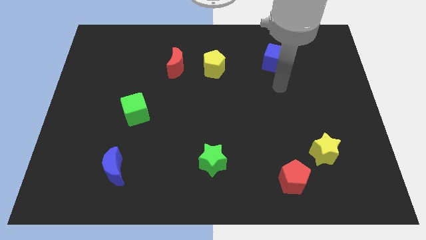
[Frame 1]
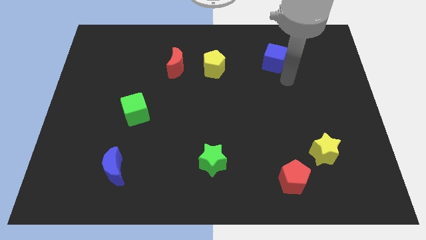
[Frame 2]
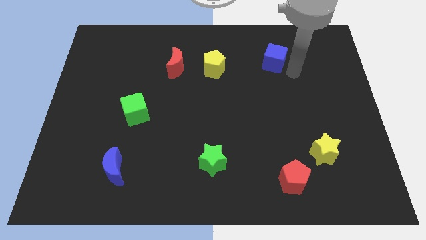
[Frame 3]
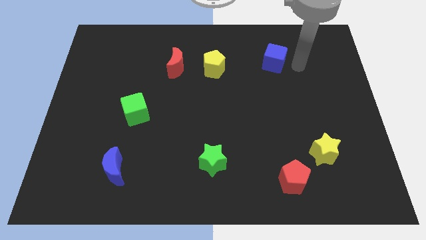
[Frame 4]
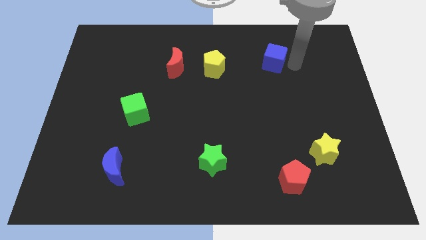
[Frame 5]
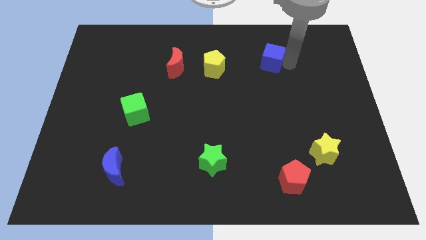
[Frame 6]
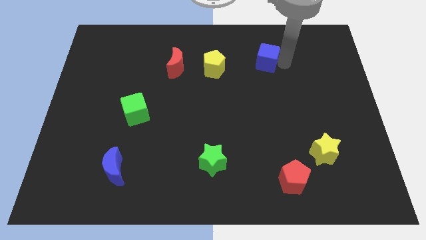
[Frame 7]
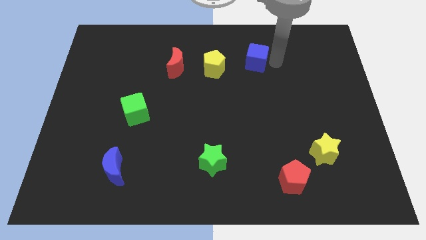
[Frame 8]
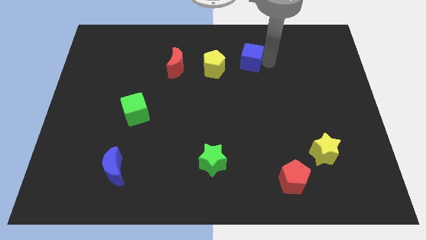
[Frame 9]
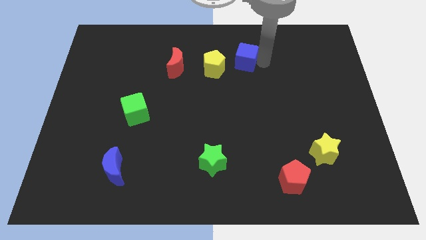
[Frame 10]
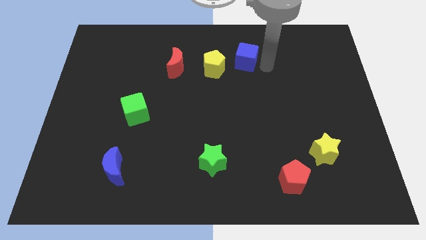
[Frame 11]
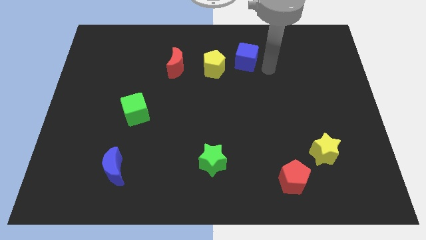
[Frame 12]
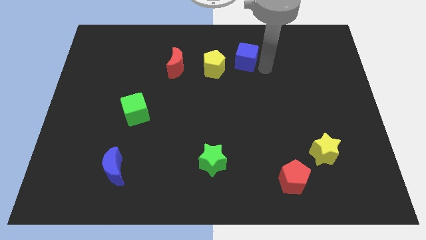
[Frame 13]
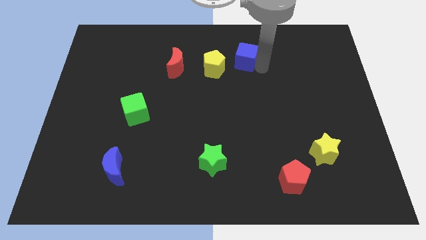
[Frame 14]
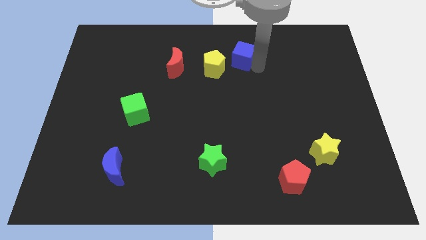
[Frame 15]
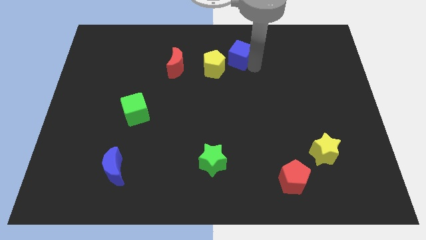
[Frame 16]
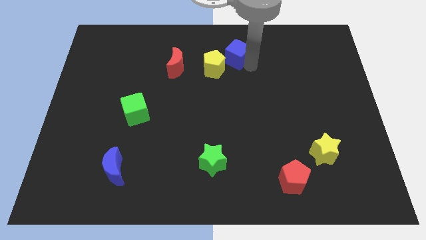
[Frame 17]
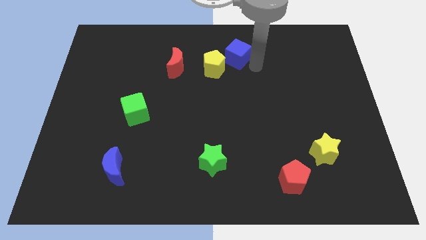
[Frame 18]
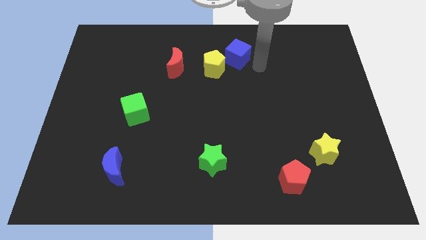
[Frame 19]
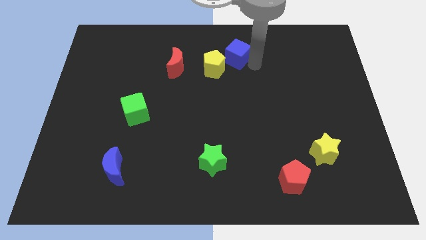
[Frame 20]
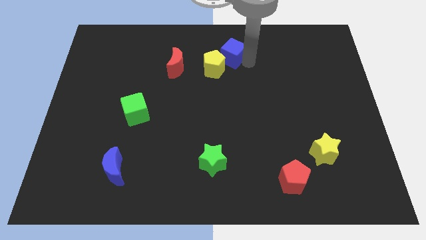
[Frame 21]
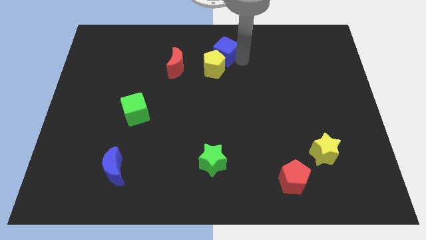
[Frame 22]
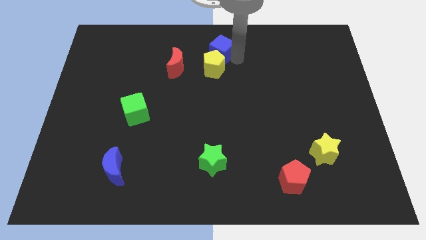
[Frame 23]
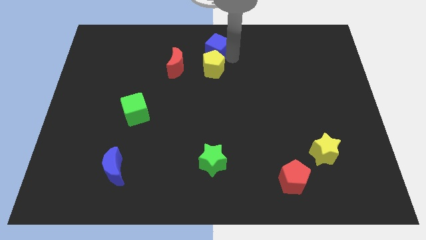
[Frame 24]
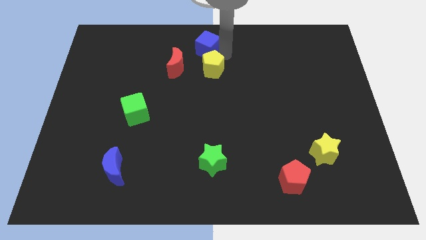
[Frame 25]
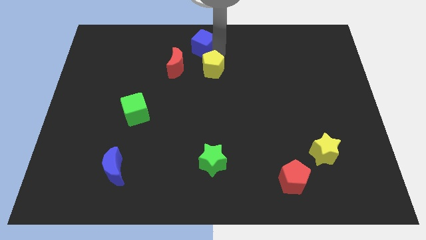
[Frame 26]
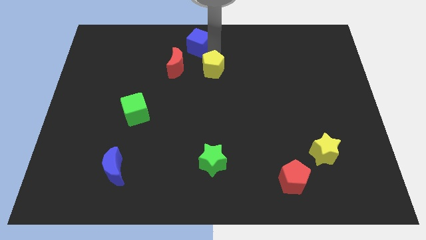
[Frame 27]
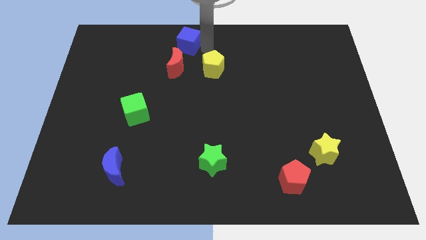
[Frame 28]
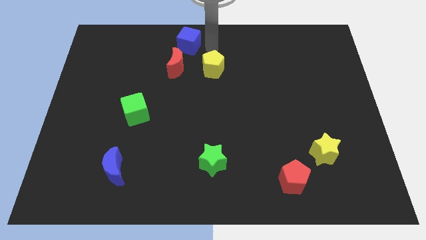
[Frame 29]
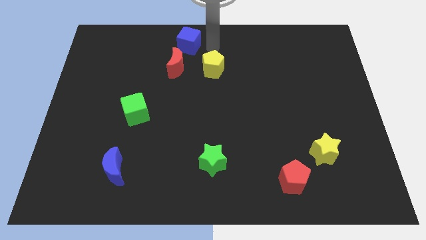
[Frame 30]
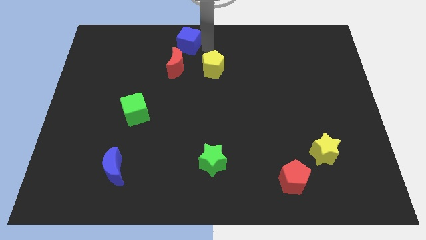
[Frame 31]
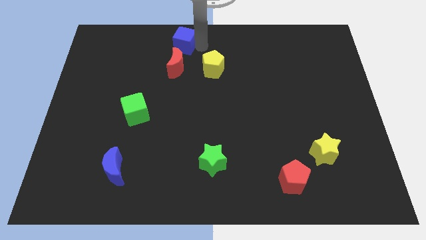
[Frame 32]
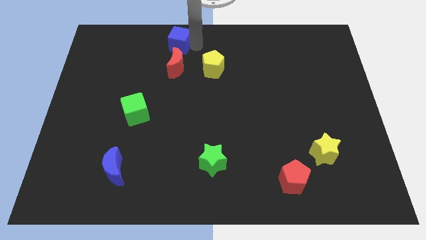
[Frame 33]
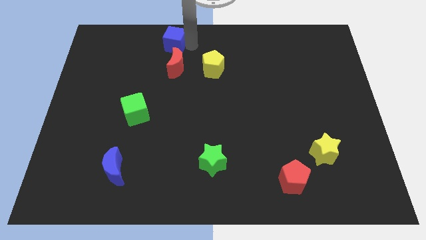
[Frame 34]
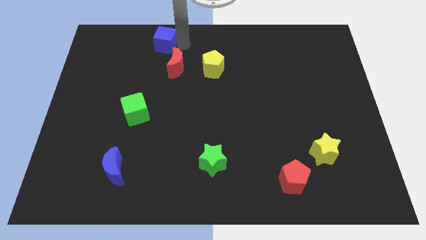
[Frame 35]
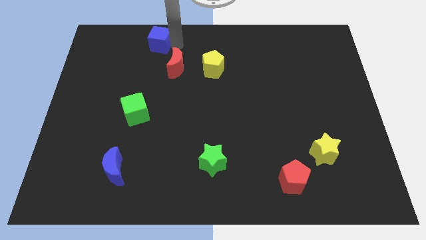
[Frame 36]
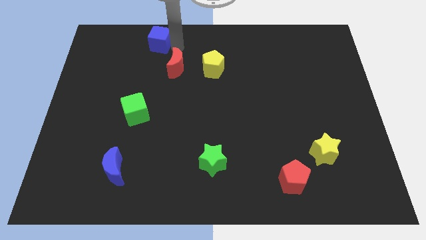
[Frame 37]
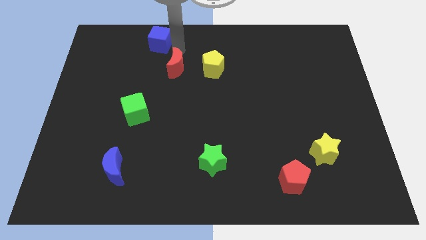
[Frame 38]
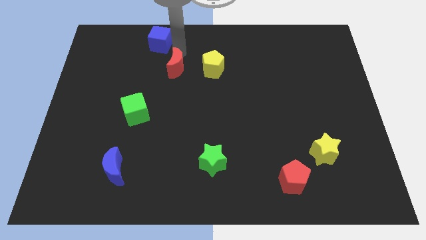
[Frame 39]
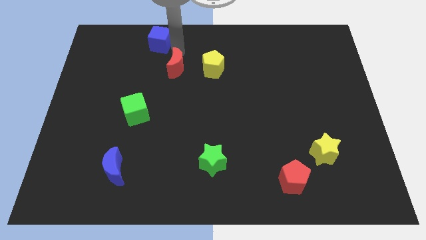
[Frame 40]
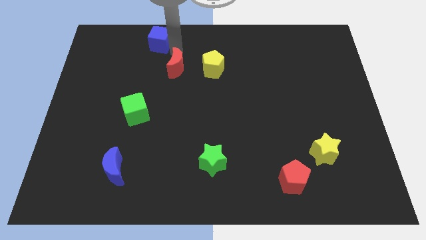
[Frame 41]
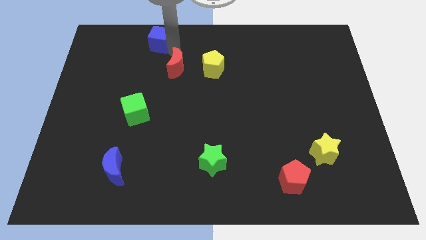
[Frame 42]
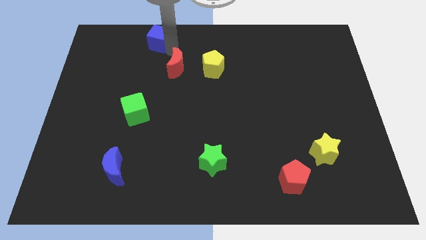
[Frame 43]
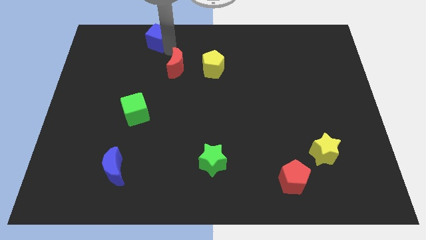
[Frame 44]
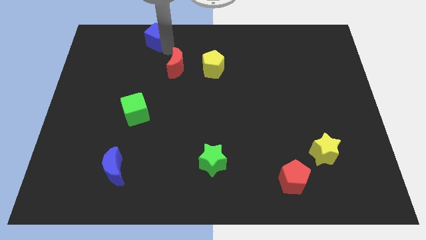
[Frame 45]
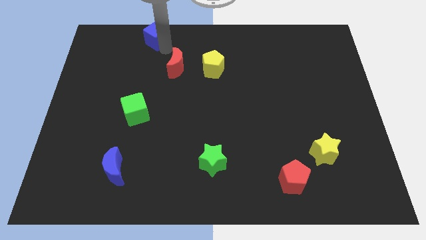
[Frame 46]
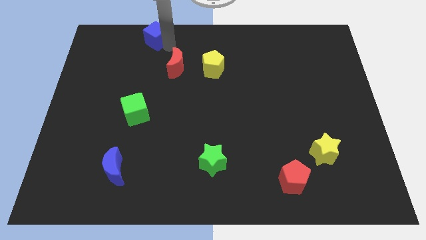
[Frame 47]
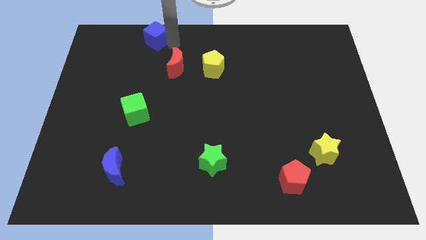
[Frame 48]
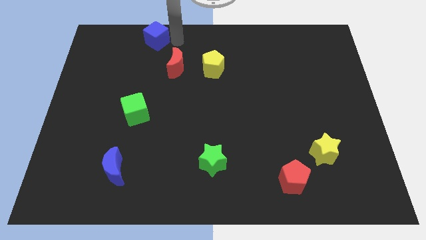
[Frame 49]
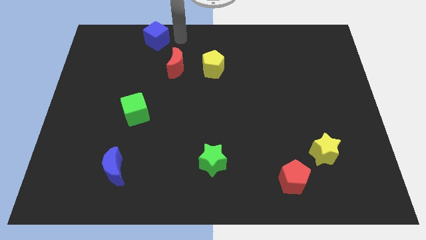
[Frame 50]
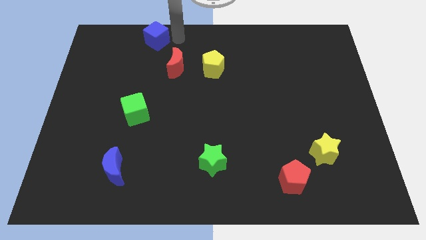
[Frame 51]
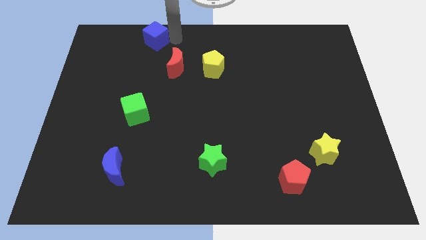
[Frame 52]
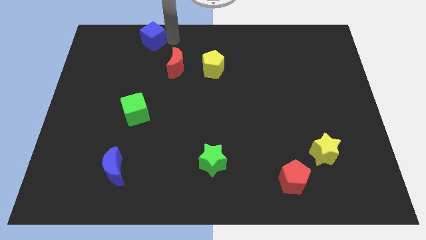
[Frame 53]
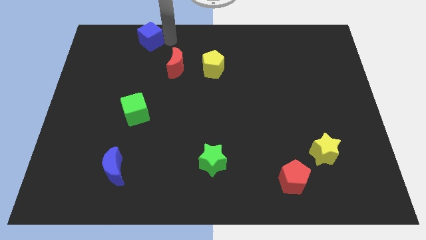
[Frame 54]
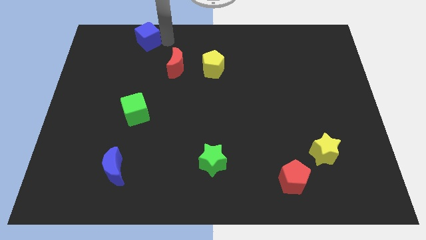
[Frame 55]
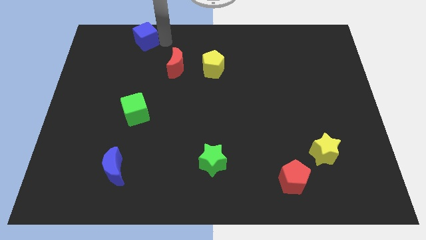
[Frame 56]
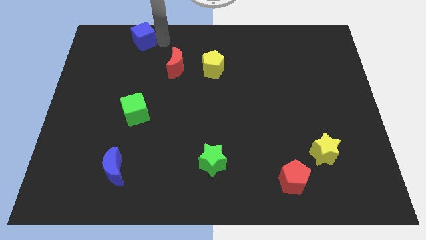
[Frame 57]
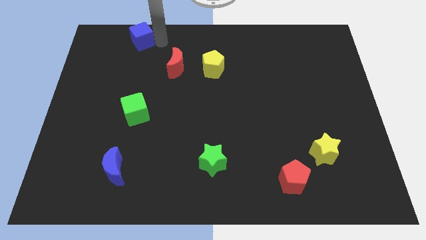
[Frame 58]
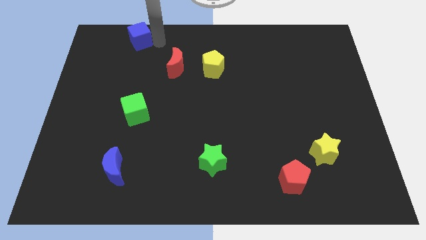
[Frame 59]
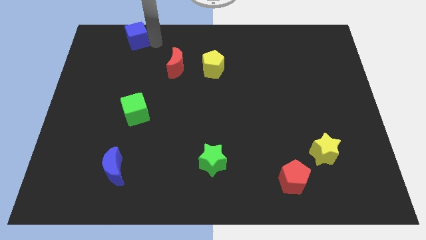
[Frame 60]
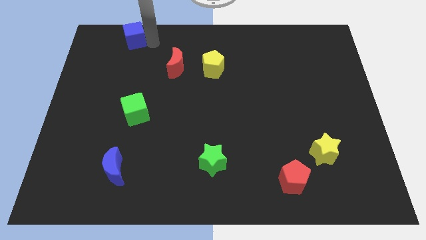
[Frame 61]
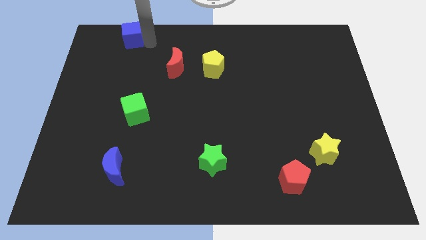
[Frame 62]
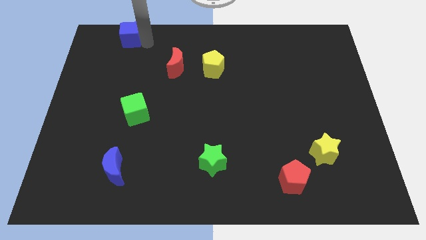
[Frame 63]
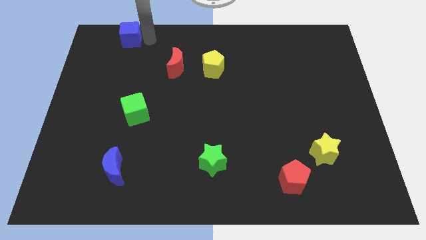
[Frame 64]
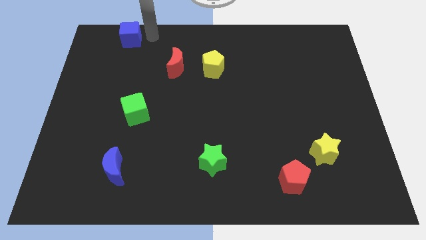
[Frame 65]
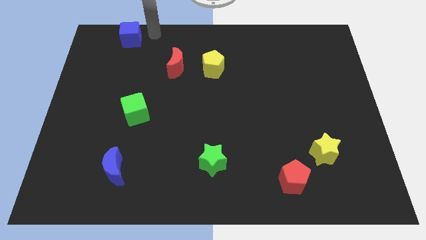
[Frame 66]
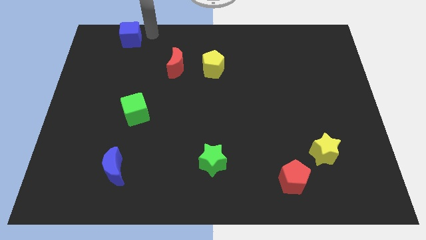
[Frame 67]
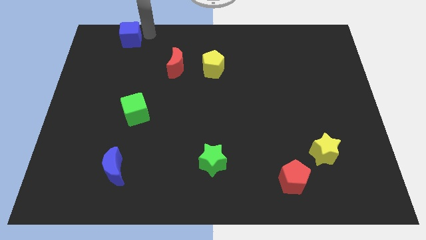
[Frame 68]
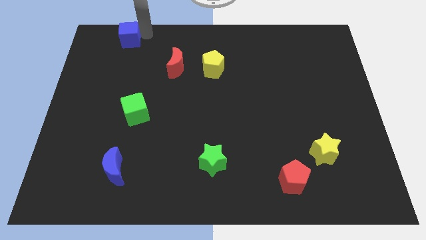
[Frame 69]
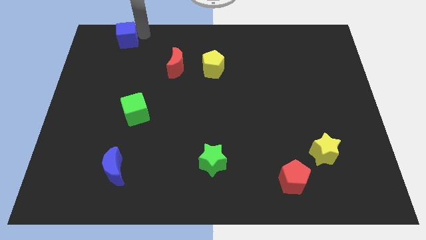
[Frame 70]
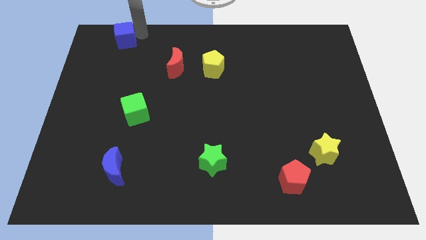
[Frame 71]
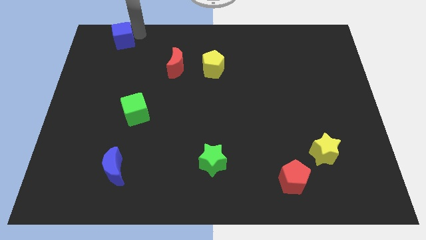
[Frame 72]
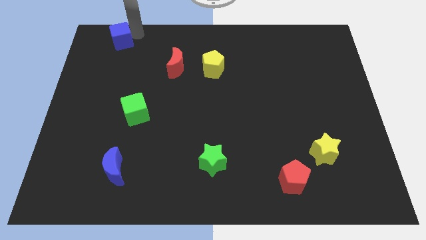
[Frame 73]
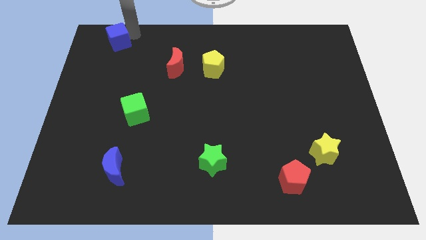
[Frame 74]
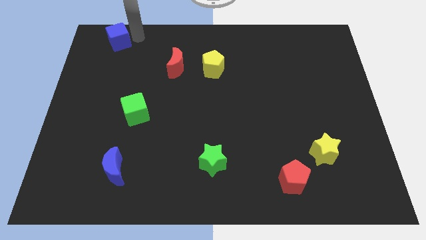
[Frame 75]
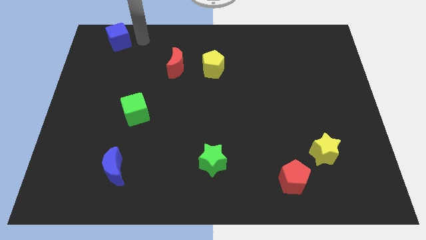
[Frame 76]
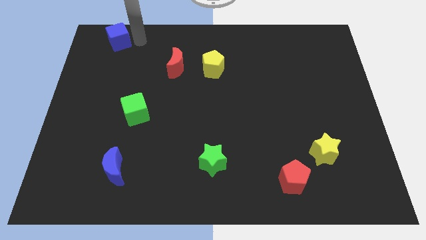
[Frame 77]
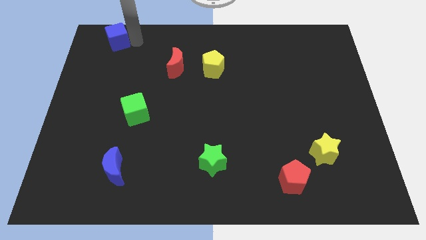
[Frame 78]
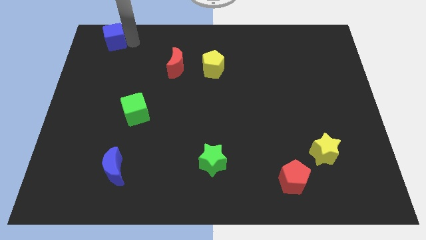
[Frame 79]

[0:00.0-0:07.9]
put the blue cube to the upper left corner
